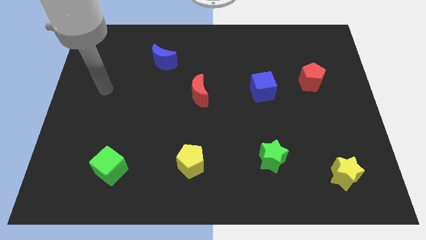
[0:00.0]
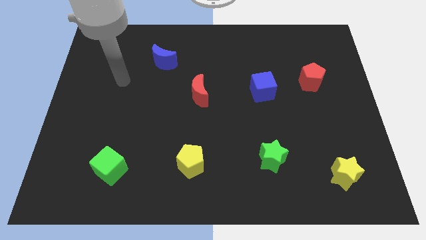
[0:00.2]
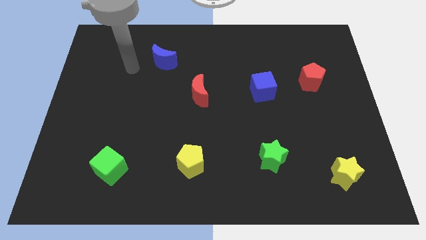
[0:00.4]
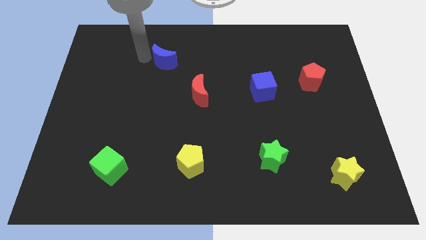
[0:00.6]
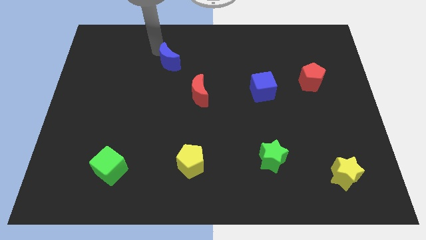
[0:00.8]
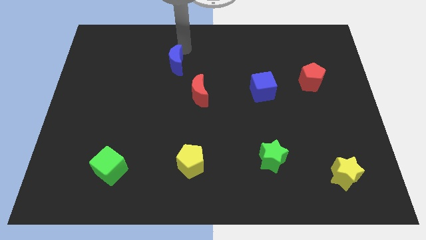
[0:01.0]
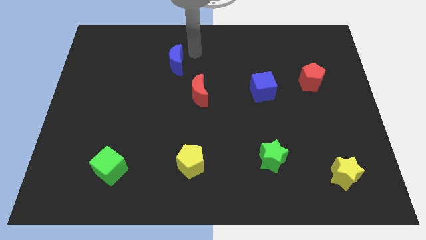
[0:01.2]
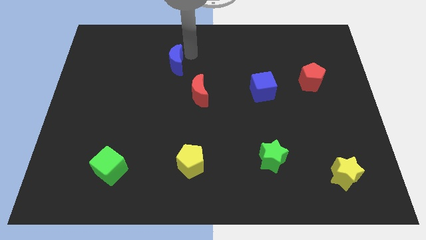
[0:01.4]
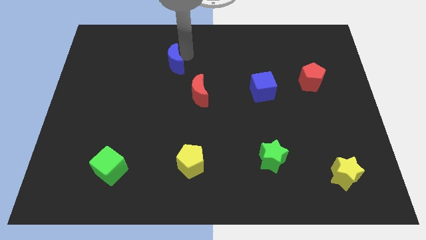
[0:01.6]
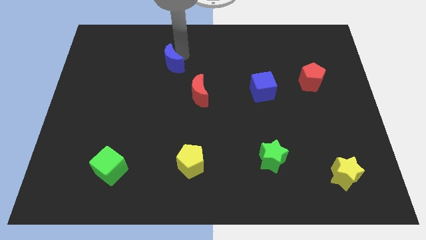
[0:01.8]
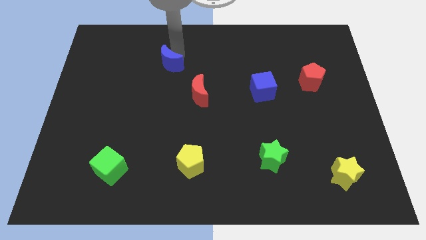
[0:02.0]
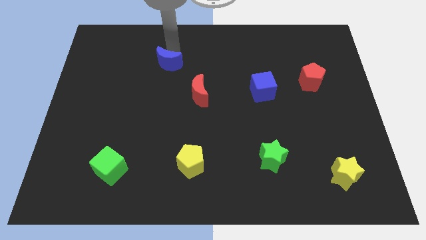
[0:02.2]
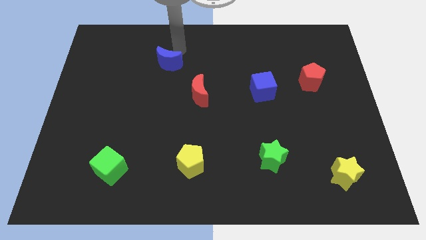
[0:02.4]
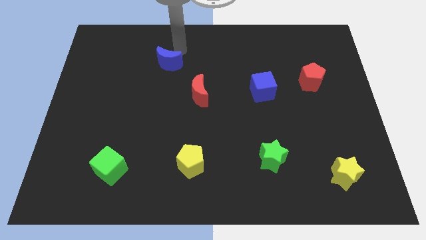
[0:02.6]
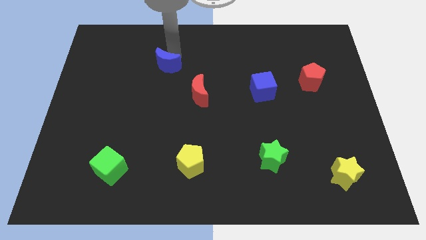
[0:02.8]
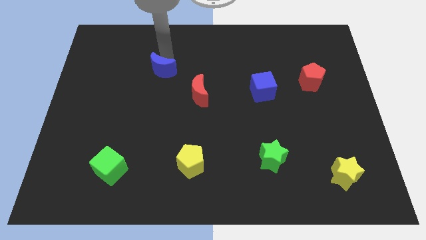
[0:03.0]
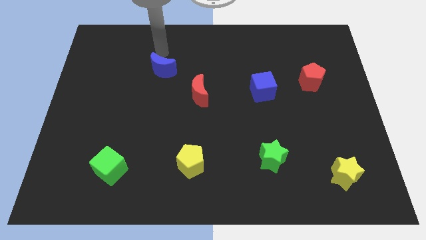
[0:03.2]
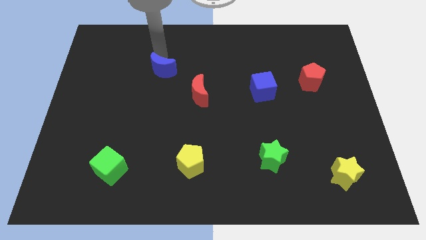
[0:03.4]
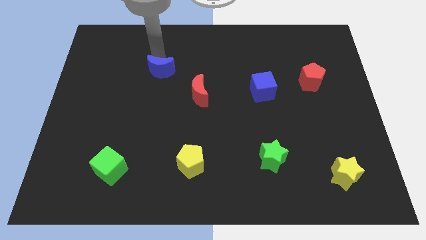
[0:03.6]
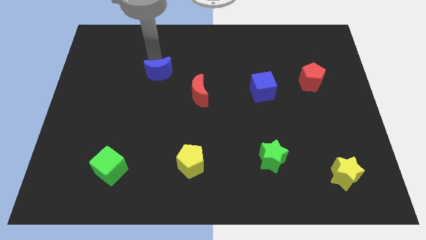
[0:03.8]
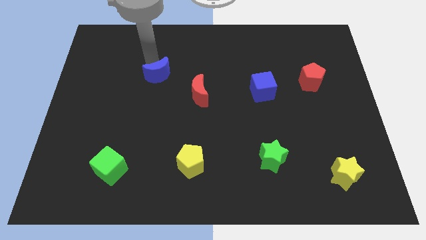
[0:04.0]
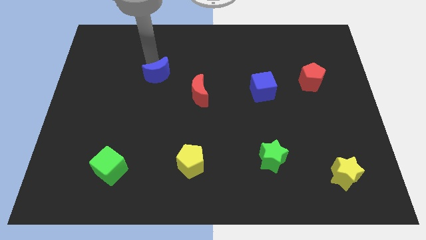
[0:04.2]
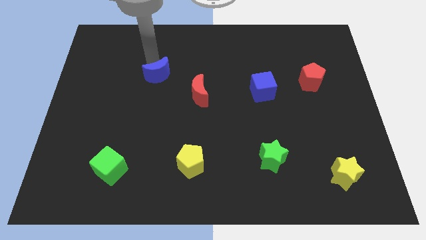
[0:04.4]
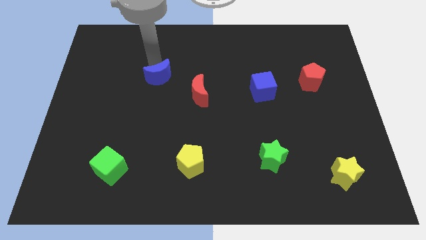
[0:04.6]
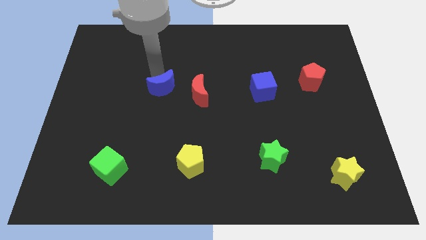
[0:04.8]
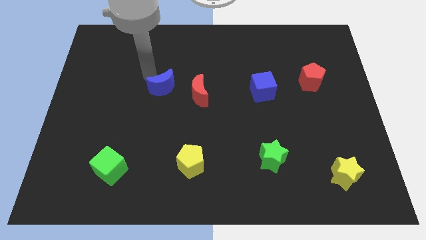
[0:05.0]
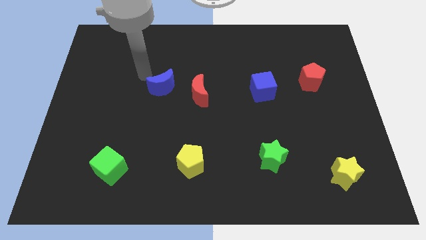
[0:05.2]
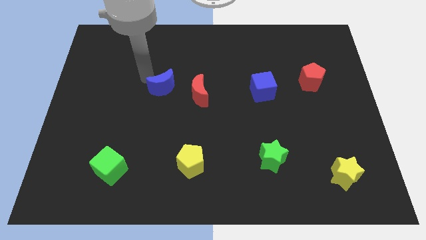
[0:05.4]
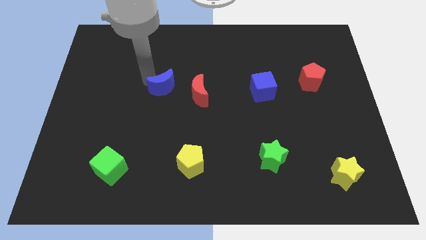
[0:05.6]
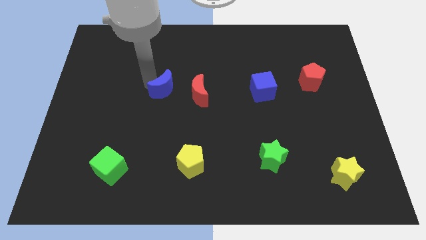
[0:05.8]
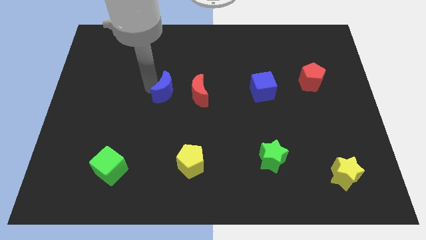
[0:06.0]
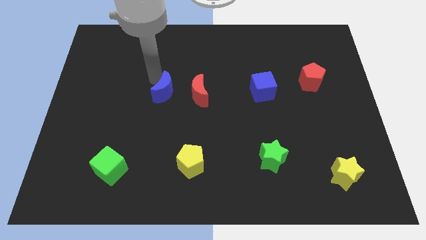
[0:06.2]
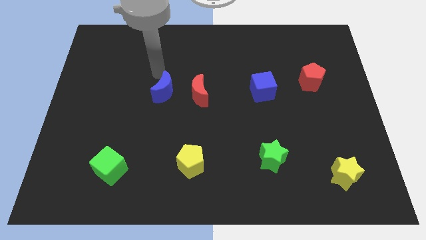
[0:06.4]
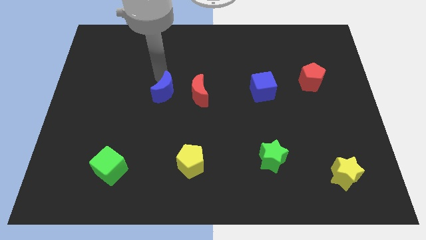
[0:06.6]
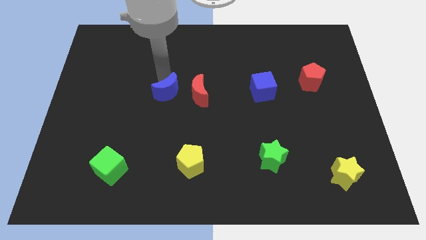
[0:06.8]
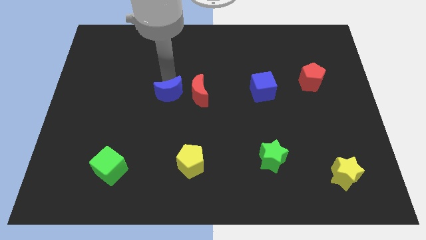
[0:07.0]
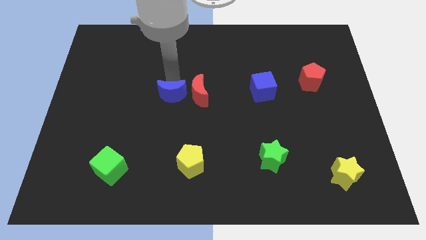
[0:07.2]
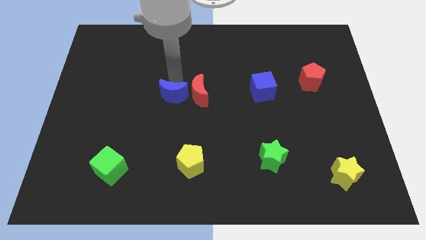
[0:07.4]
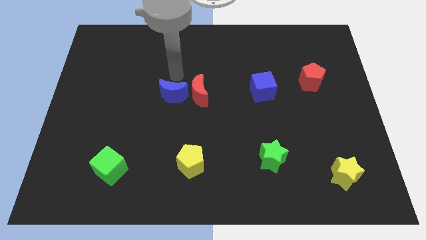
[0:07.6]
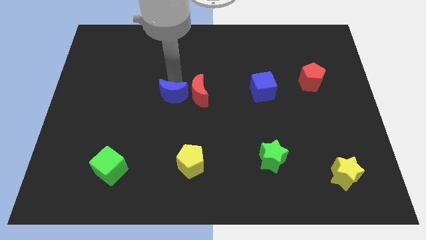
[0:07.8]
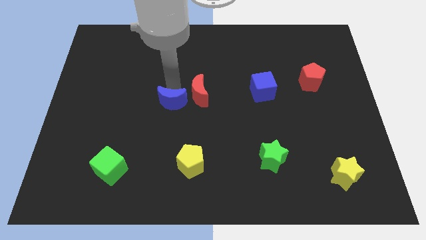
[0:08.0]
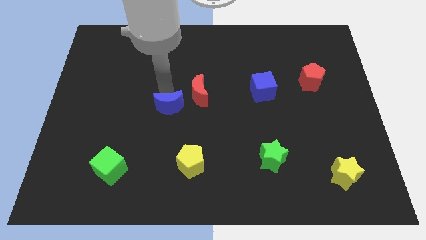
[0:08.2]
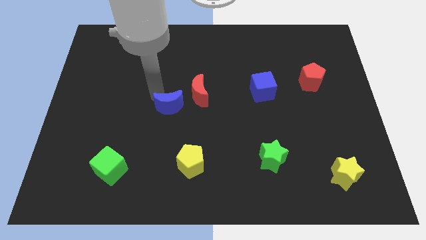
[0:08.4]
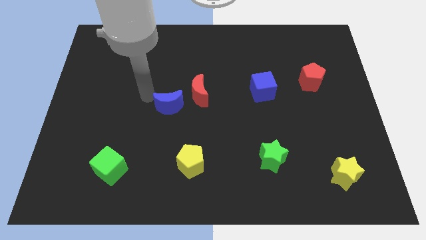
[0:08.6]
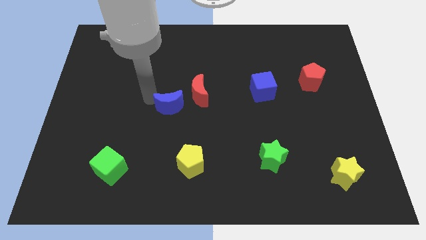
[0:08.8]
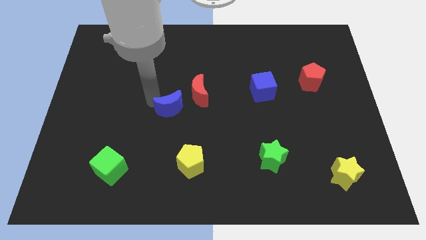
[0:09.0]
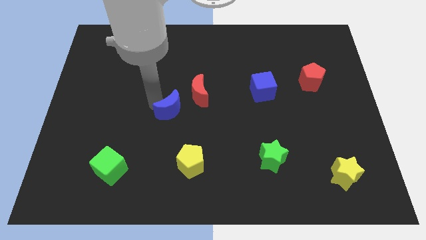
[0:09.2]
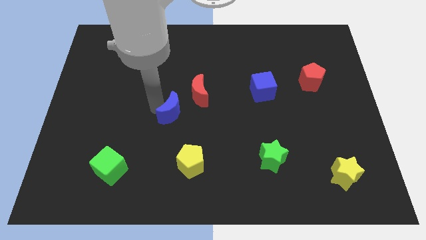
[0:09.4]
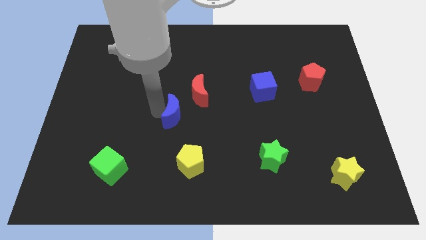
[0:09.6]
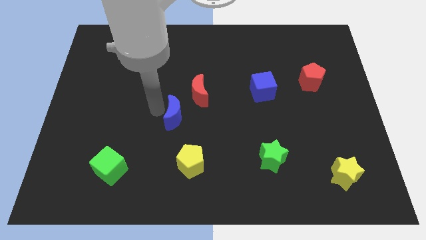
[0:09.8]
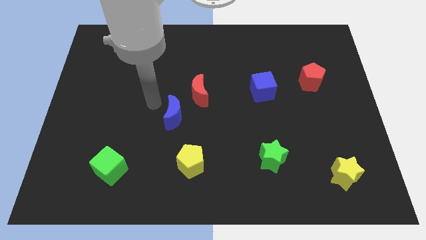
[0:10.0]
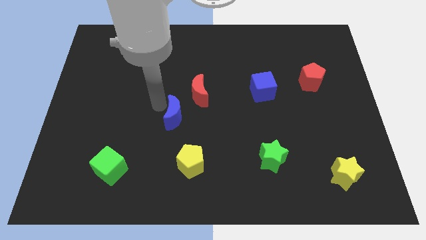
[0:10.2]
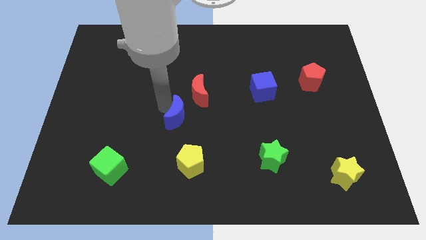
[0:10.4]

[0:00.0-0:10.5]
slide the blue moon to the bottom side of the red moon

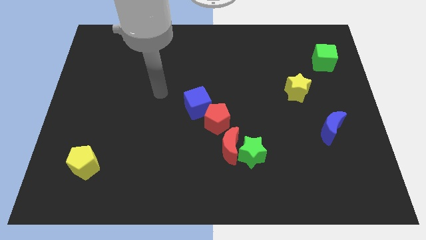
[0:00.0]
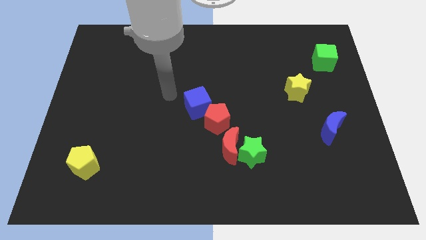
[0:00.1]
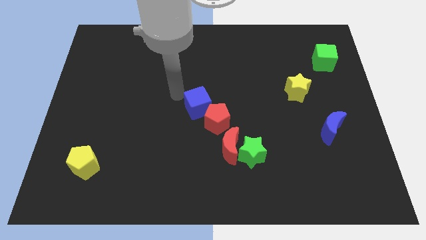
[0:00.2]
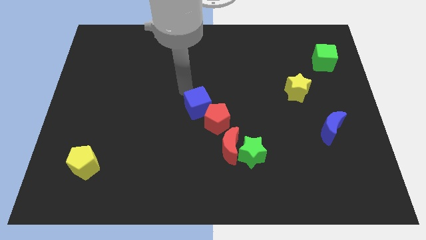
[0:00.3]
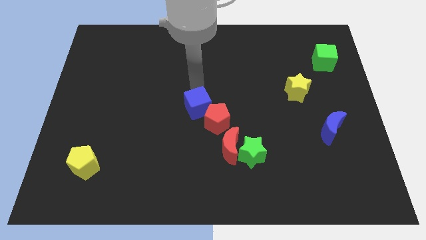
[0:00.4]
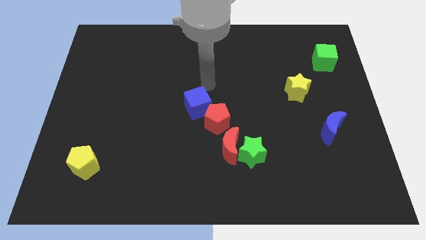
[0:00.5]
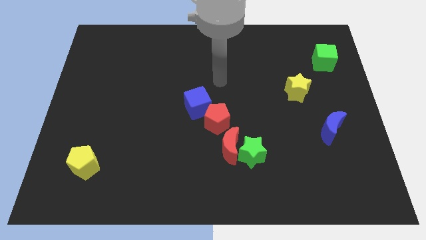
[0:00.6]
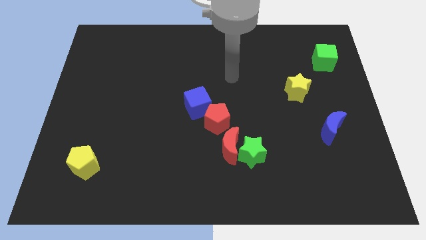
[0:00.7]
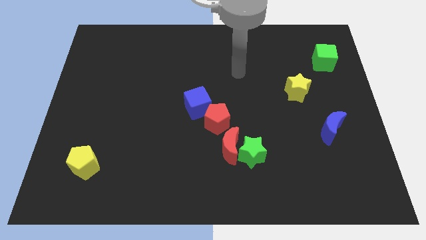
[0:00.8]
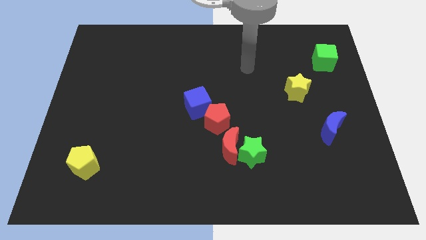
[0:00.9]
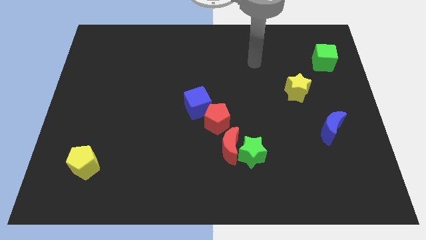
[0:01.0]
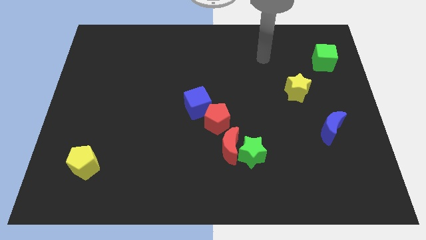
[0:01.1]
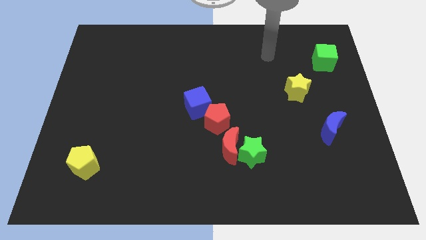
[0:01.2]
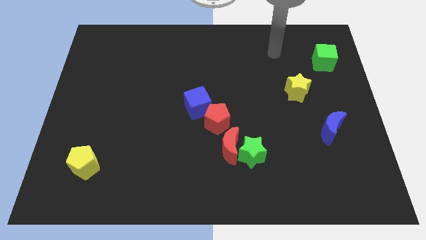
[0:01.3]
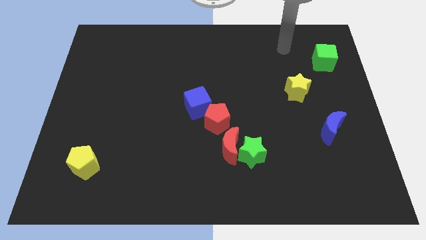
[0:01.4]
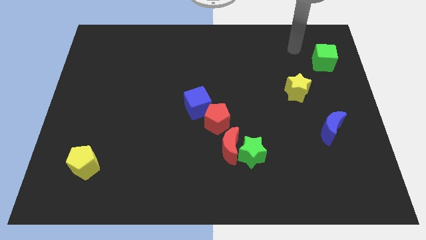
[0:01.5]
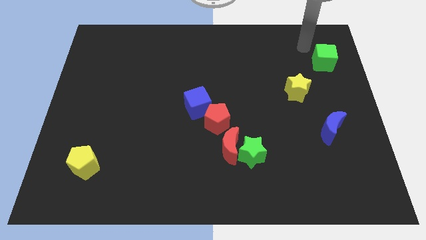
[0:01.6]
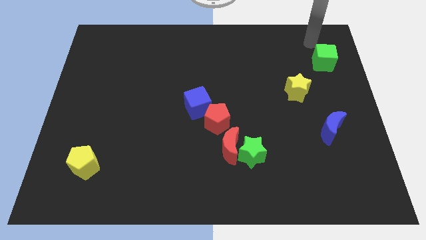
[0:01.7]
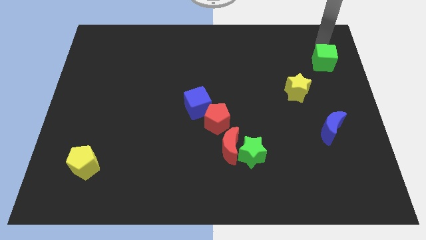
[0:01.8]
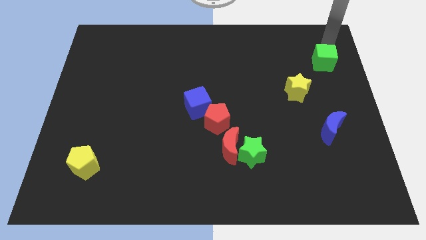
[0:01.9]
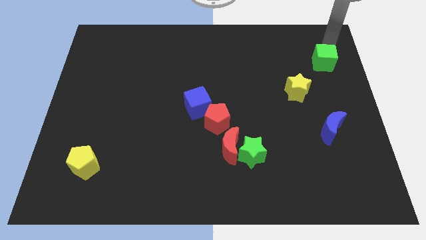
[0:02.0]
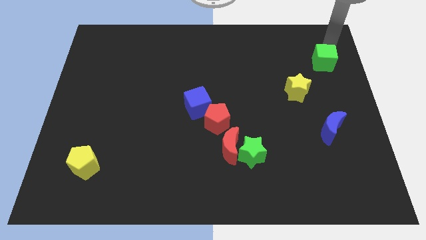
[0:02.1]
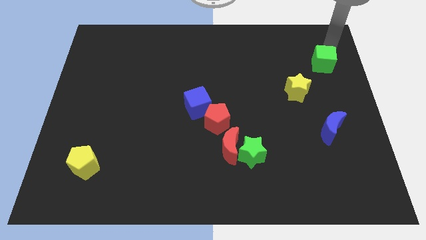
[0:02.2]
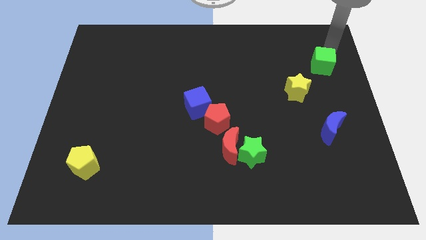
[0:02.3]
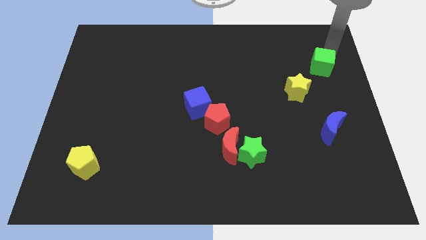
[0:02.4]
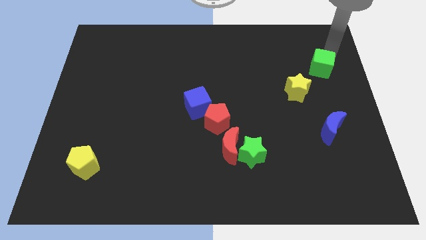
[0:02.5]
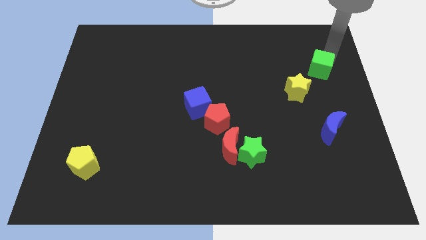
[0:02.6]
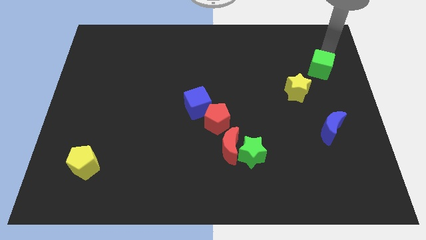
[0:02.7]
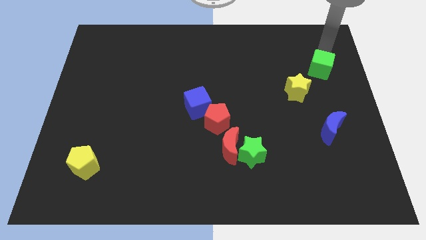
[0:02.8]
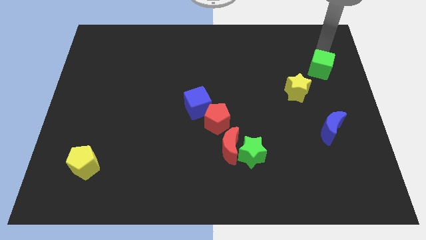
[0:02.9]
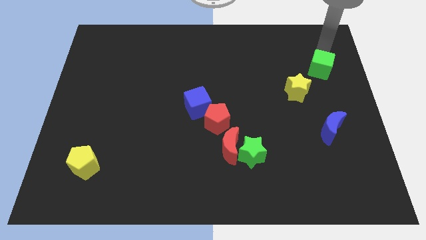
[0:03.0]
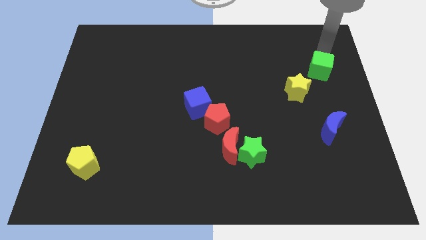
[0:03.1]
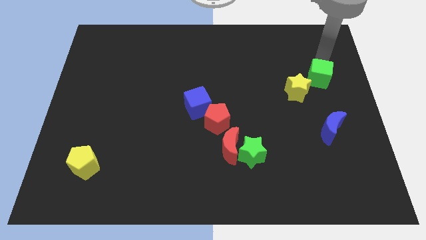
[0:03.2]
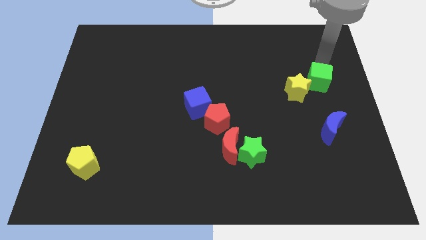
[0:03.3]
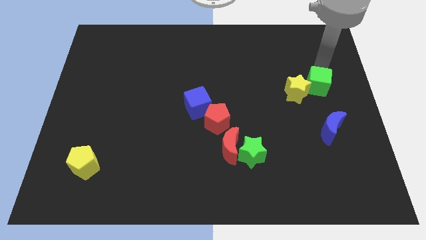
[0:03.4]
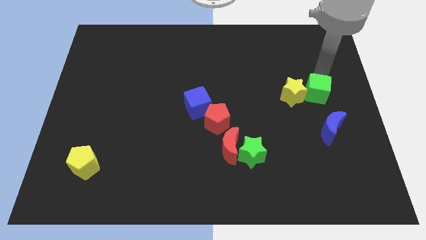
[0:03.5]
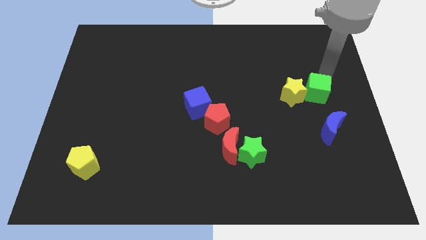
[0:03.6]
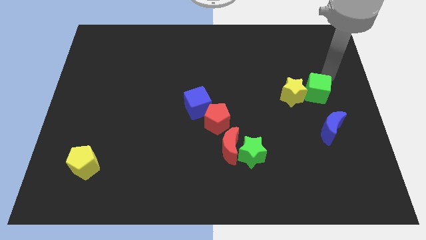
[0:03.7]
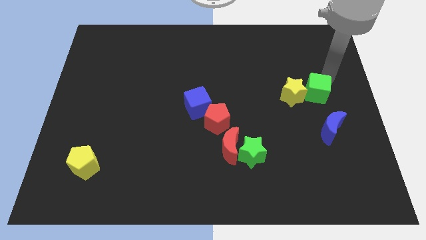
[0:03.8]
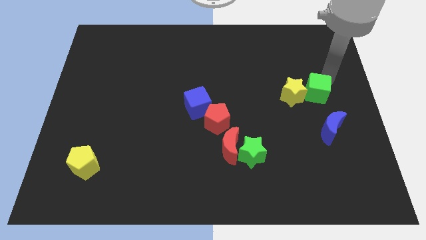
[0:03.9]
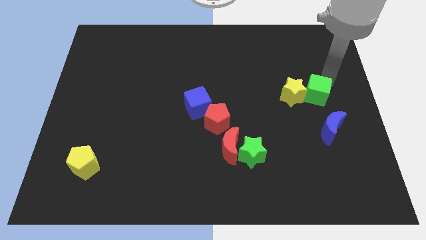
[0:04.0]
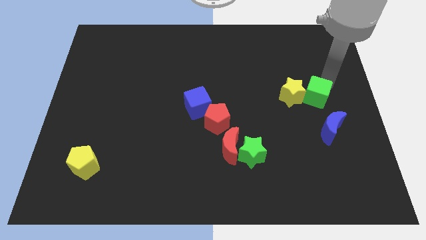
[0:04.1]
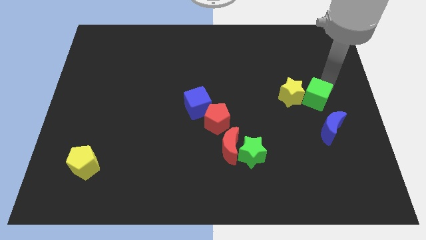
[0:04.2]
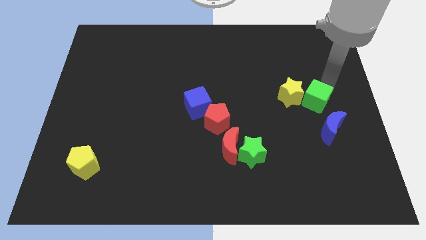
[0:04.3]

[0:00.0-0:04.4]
put the green cube to the top left side of the blue moon
